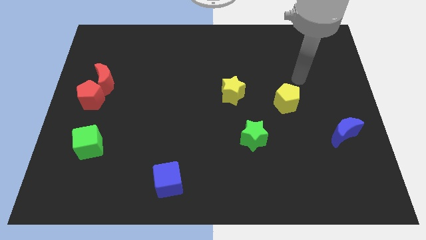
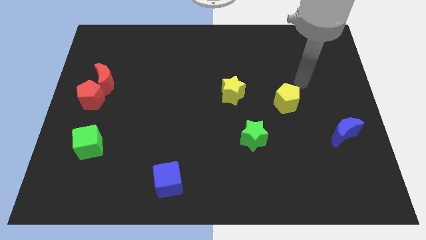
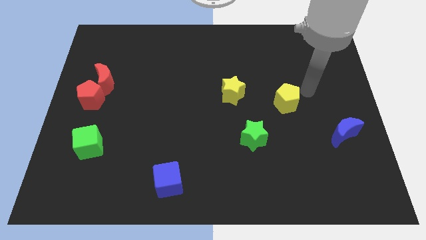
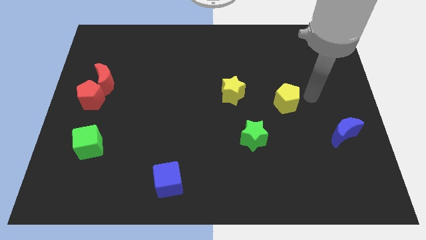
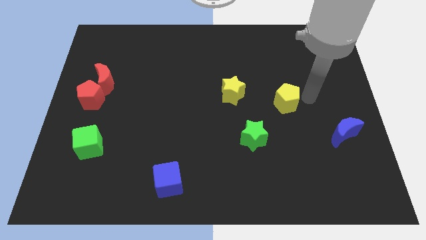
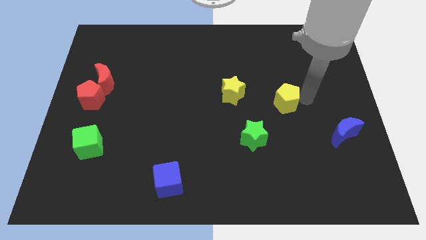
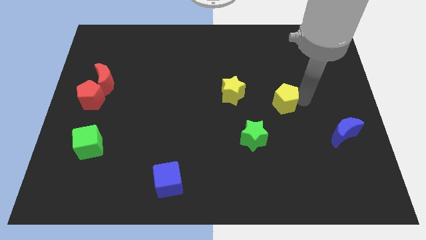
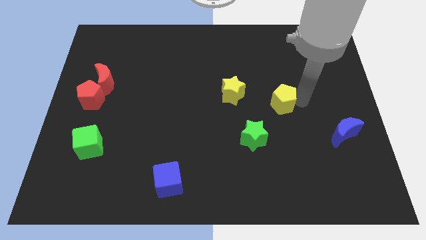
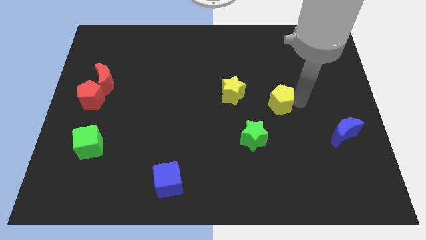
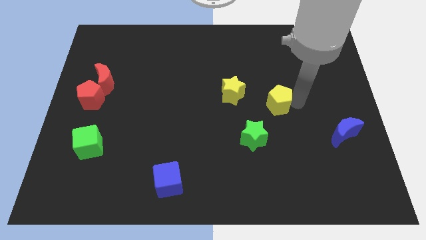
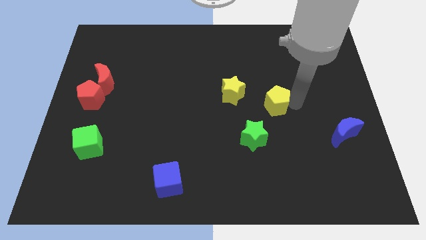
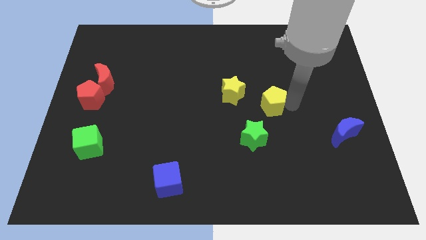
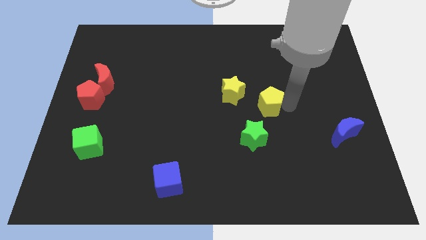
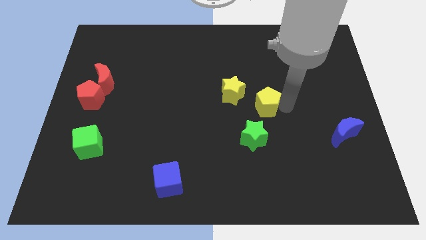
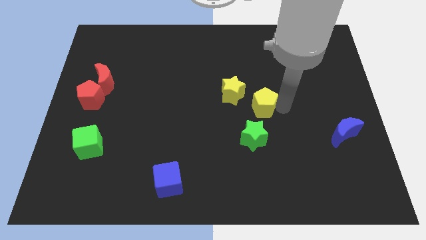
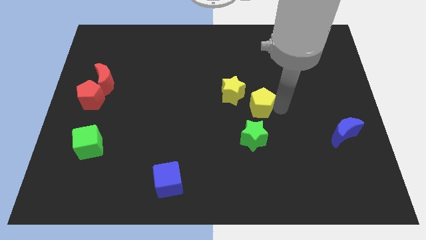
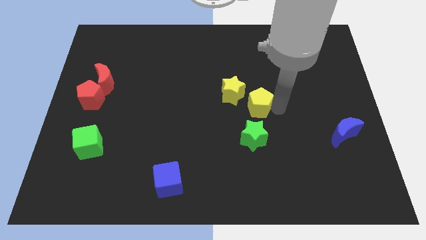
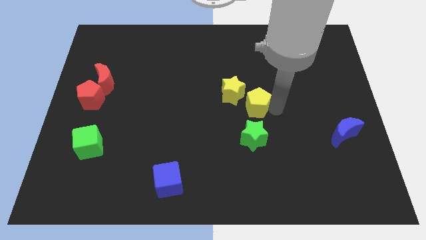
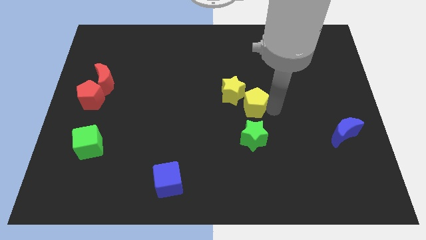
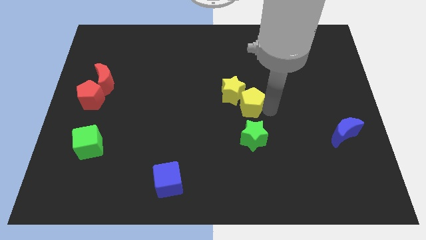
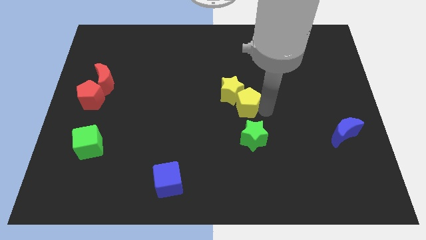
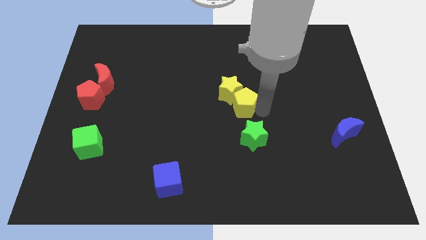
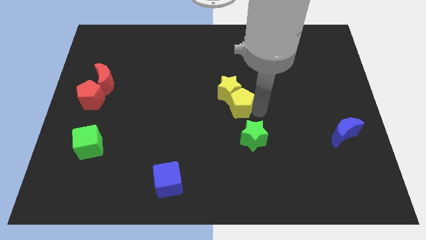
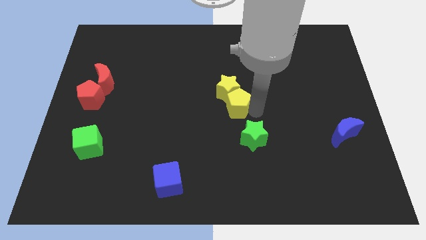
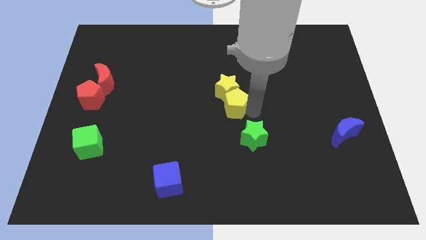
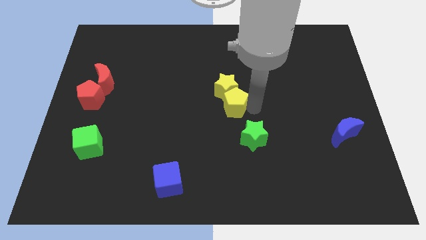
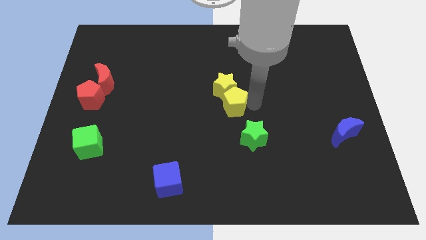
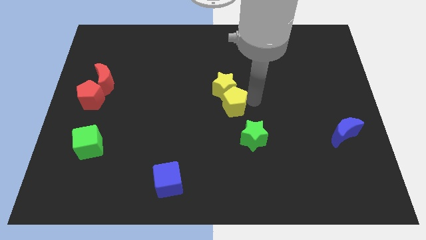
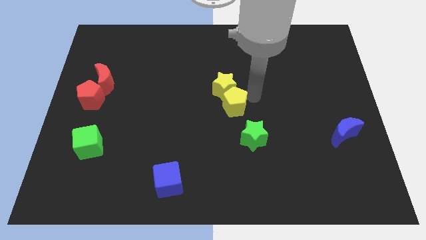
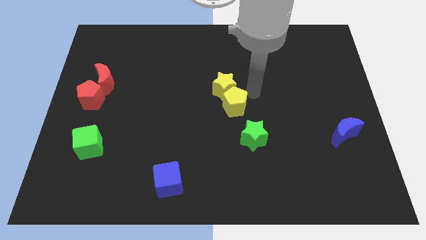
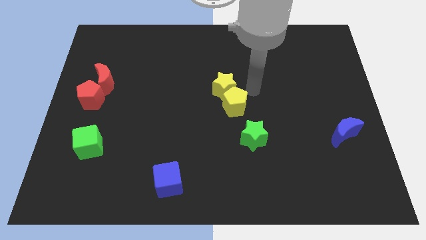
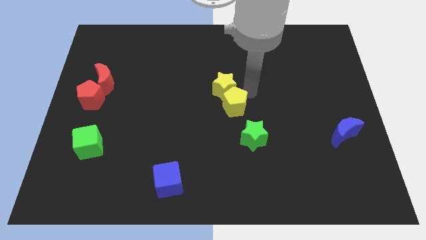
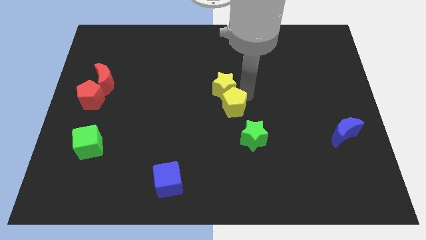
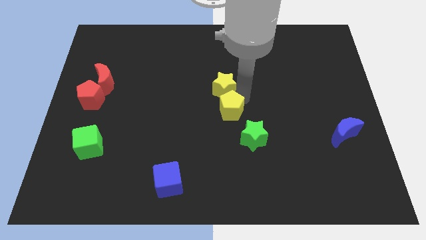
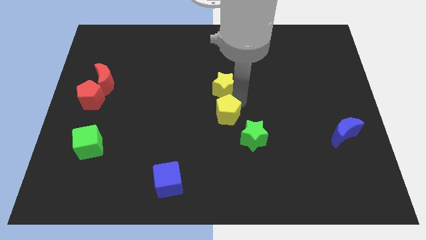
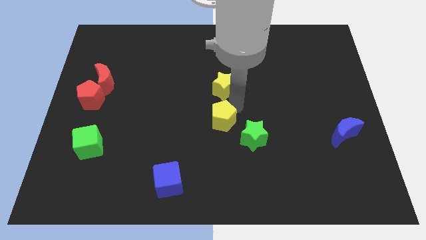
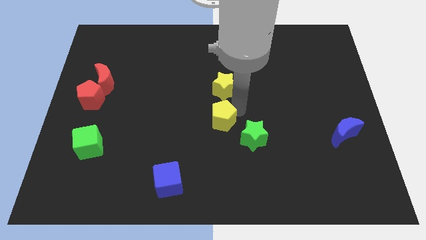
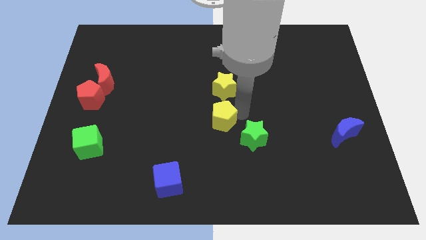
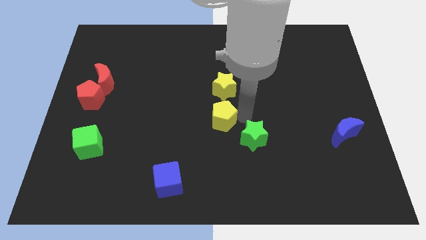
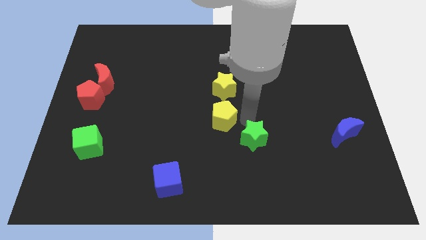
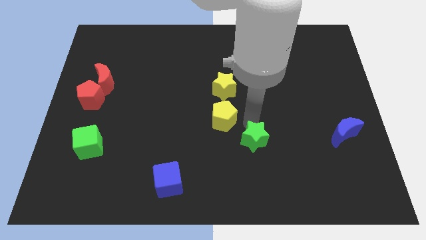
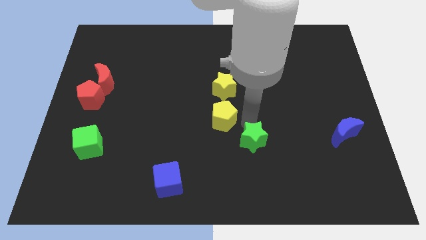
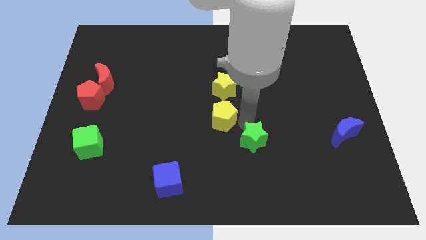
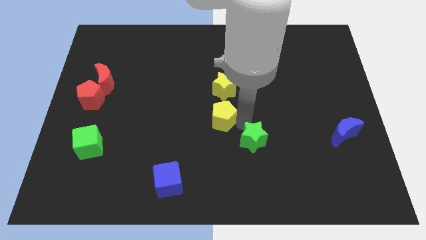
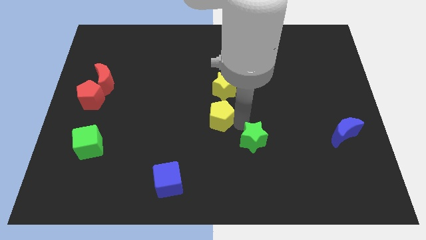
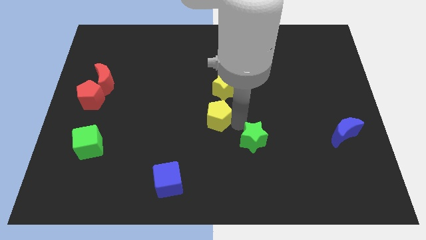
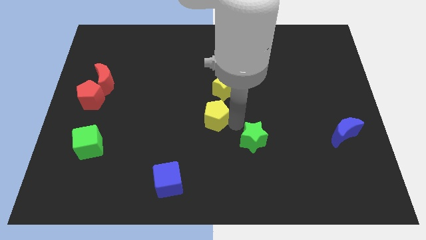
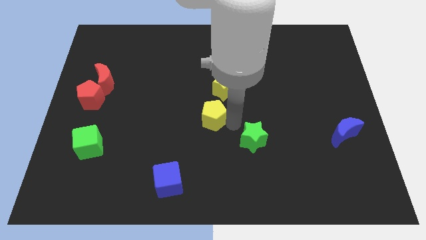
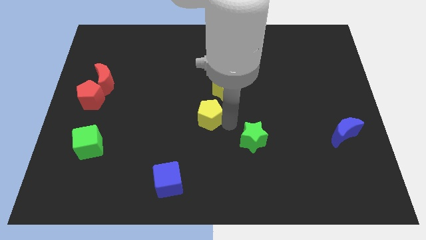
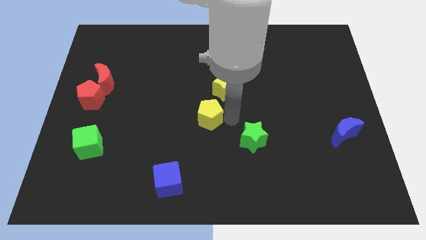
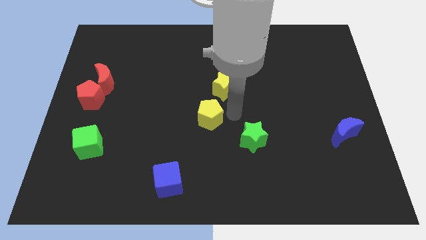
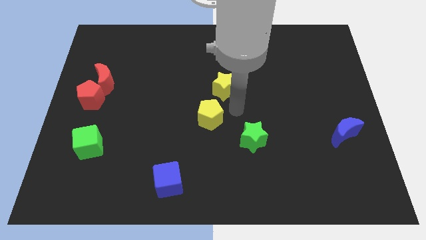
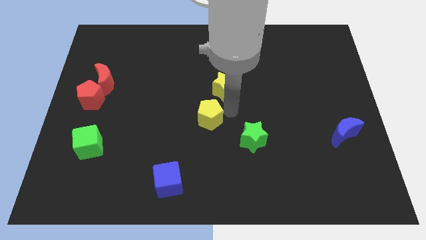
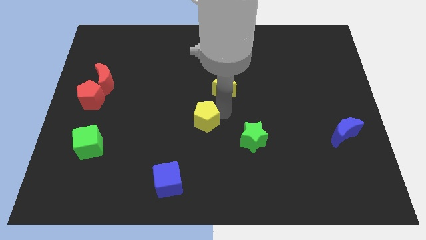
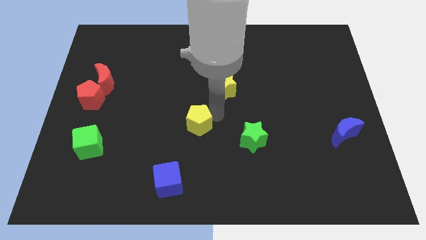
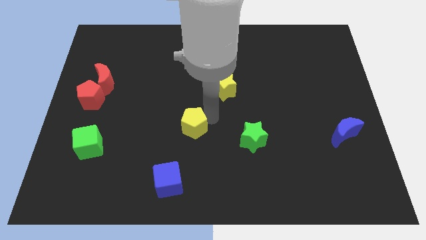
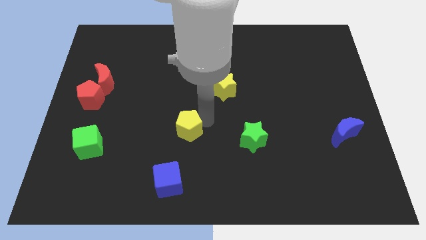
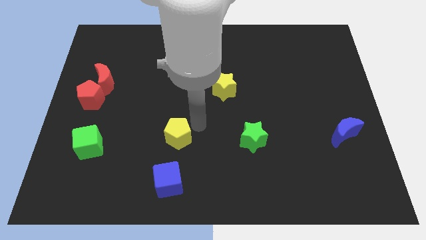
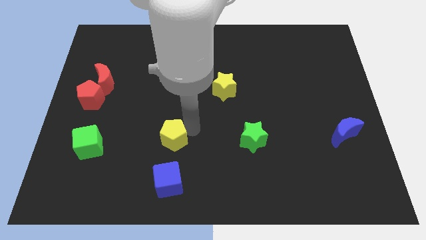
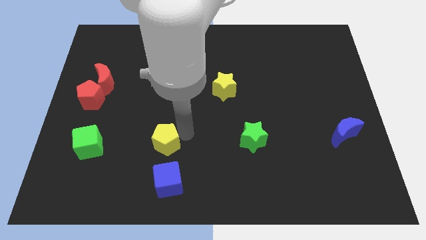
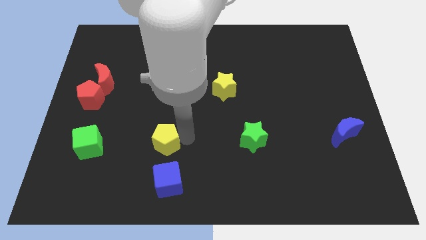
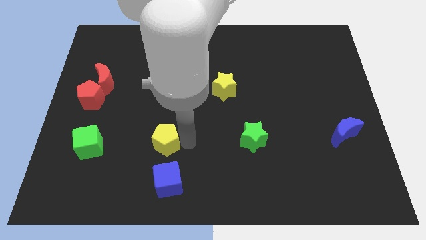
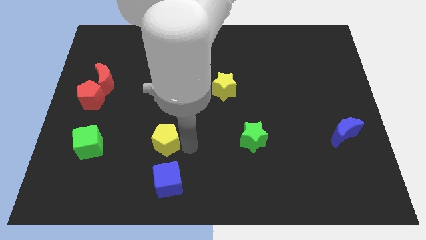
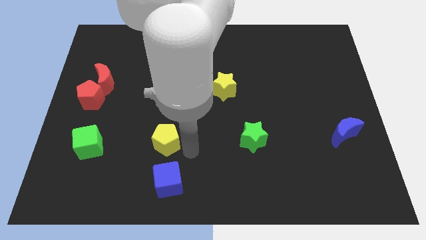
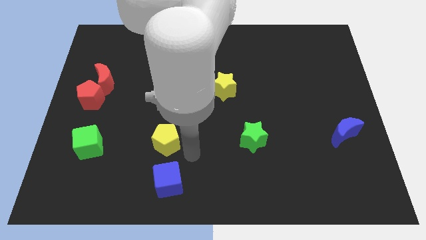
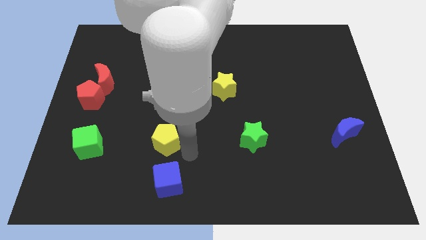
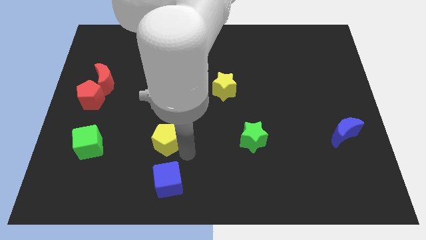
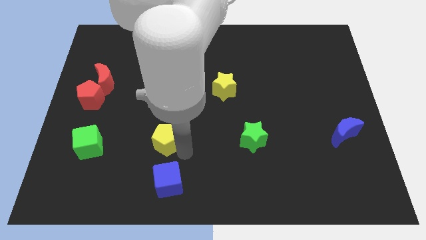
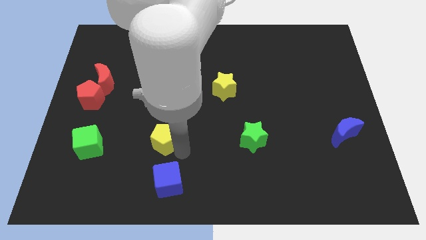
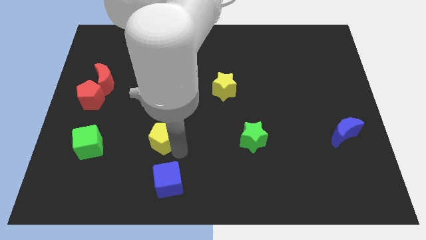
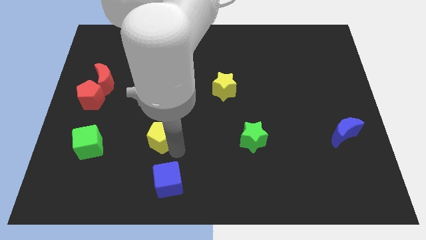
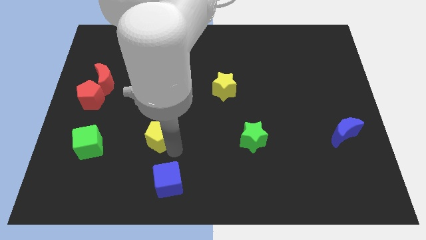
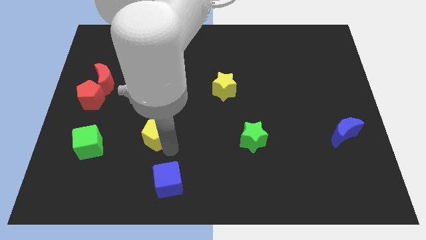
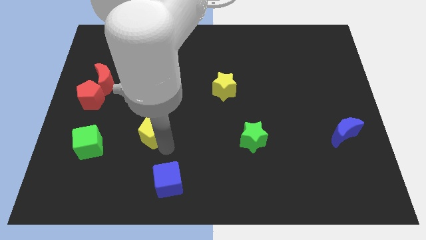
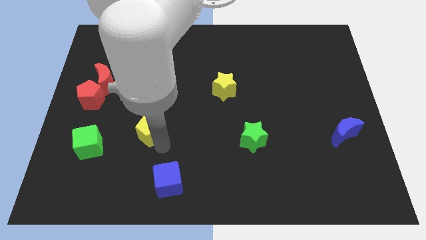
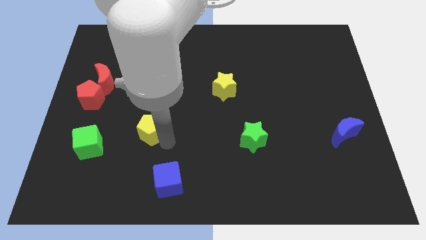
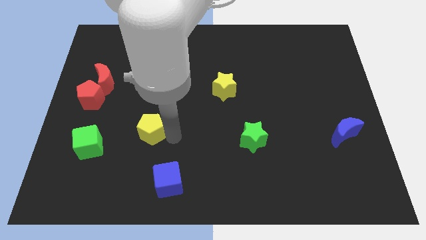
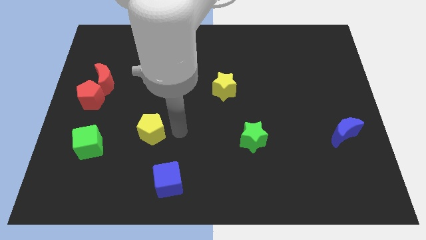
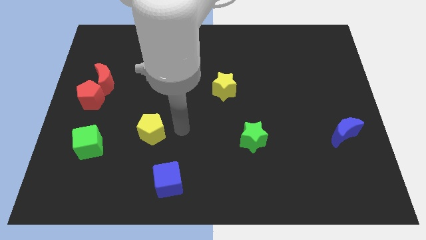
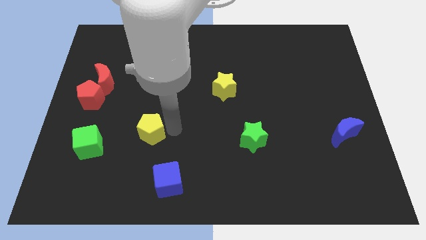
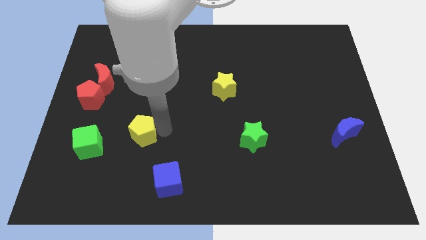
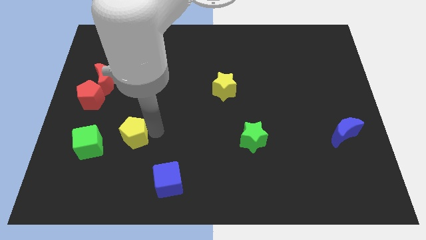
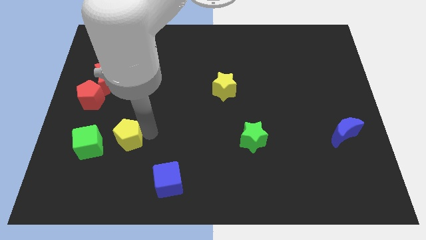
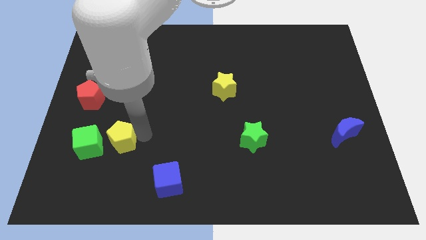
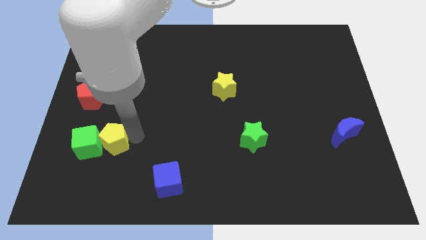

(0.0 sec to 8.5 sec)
put the yellow pentagon towards the green cube
